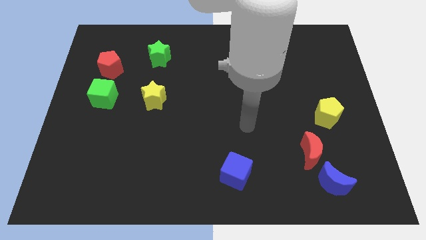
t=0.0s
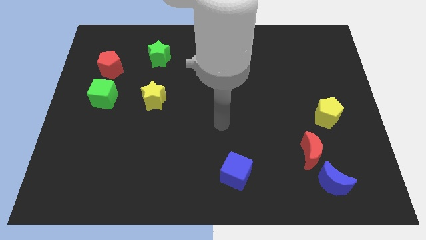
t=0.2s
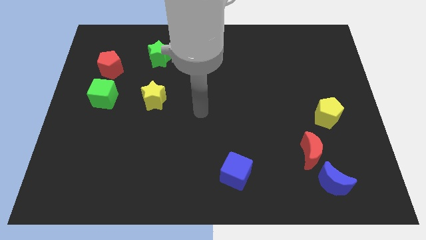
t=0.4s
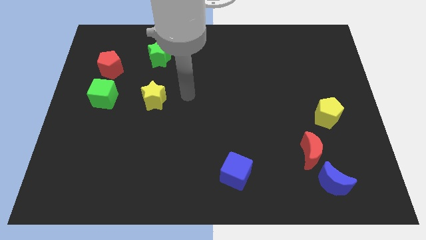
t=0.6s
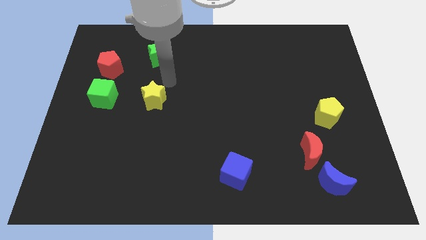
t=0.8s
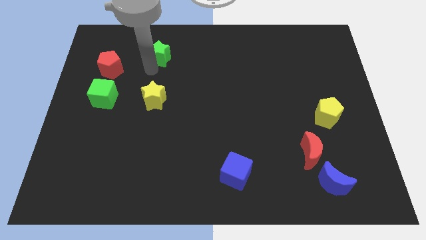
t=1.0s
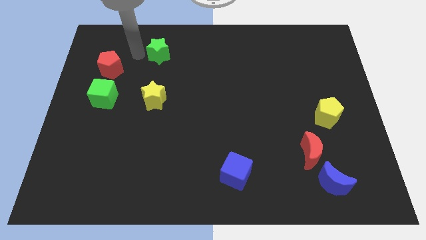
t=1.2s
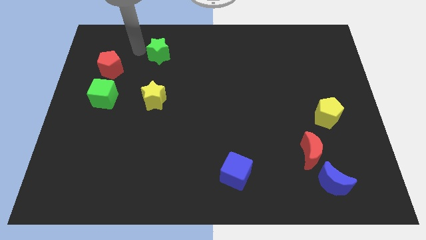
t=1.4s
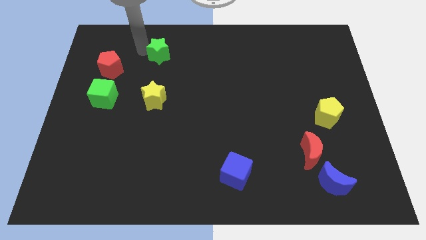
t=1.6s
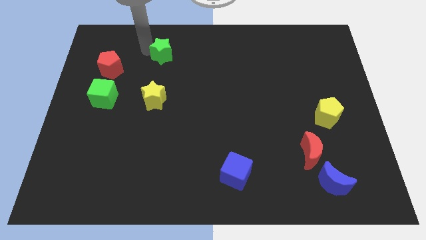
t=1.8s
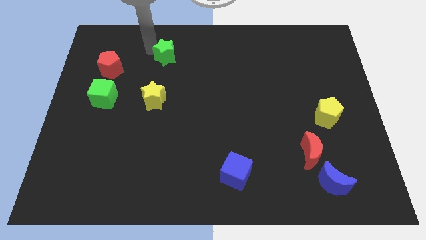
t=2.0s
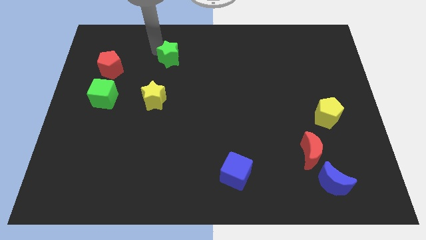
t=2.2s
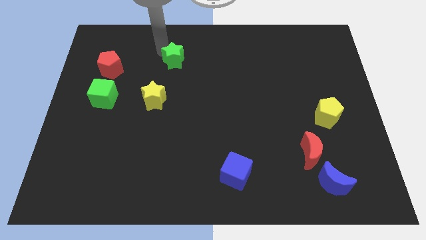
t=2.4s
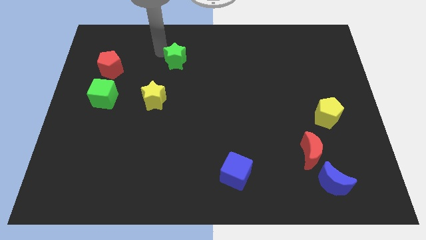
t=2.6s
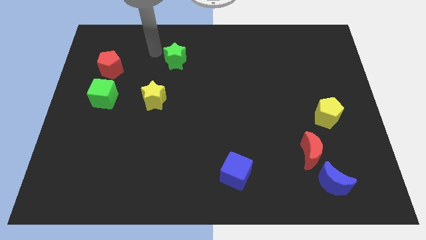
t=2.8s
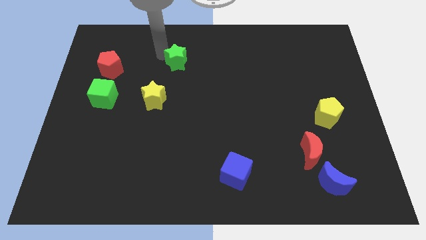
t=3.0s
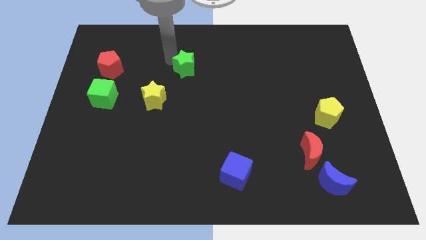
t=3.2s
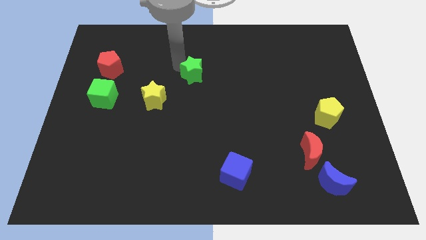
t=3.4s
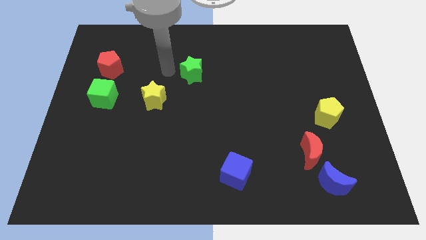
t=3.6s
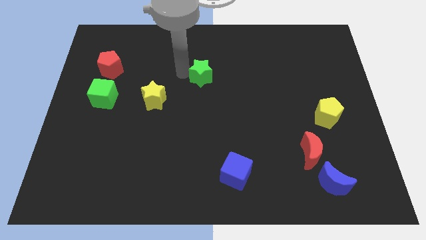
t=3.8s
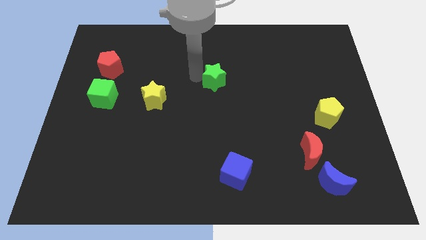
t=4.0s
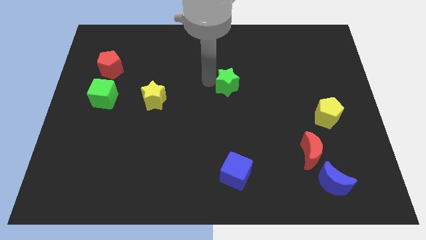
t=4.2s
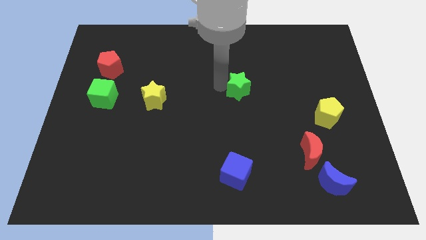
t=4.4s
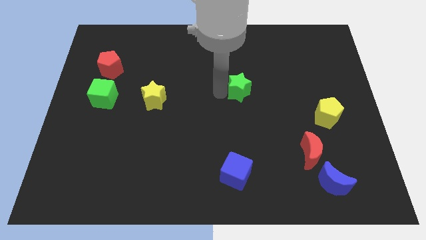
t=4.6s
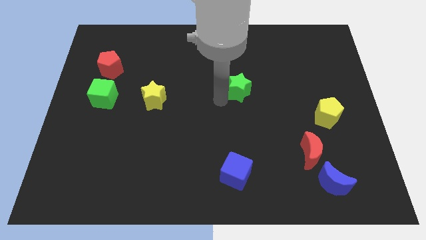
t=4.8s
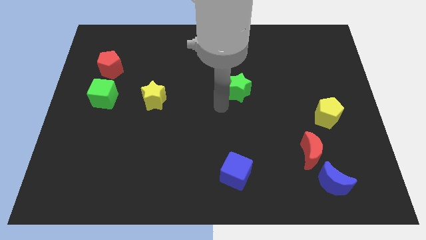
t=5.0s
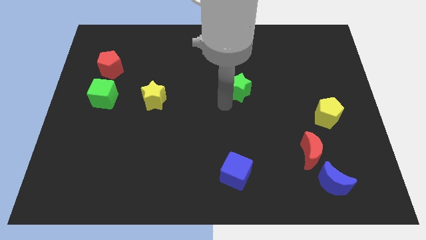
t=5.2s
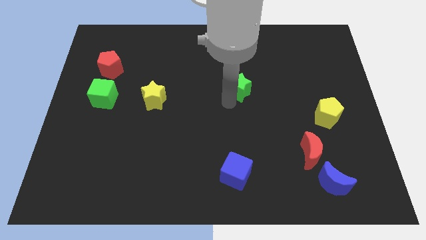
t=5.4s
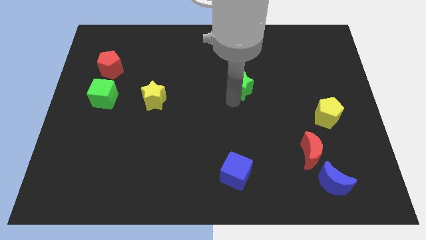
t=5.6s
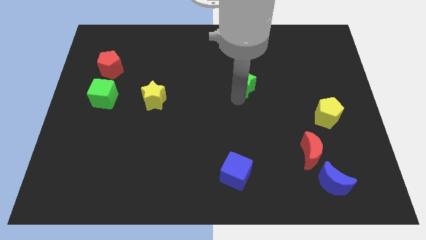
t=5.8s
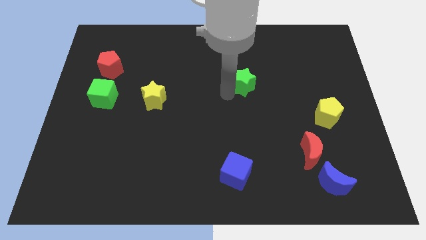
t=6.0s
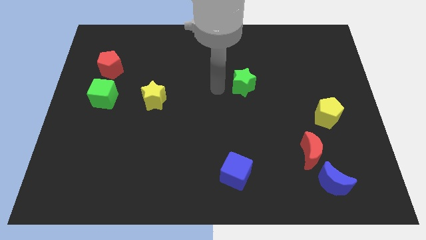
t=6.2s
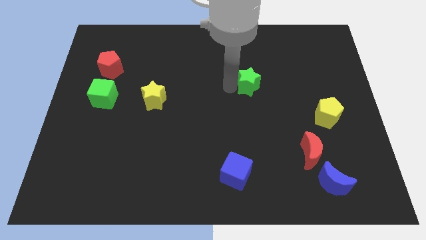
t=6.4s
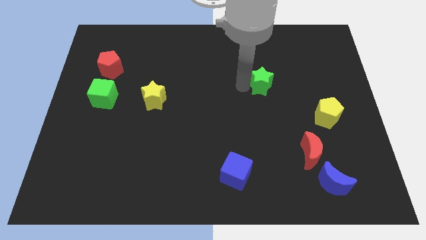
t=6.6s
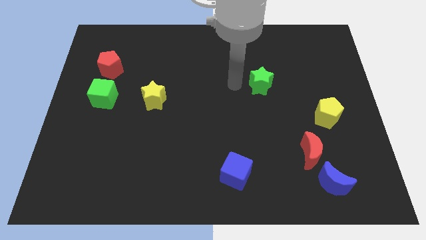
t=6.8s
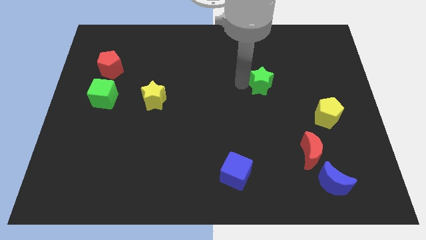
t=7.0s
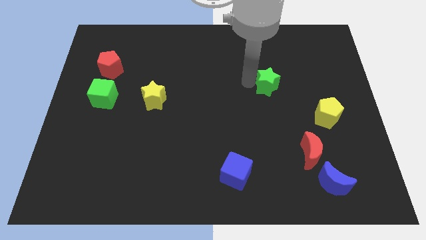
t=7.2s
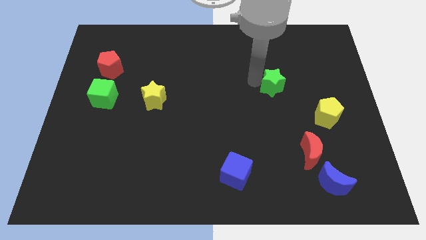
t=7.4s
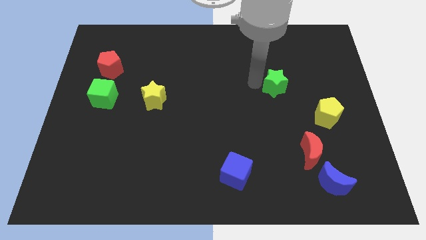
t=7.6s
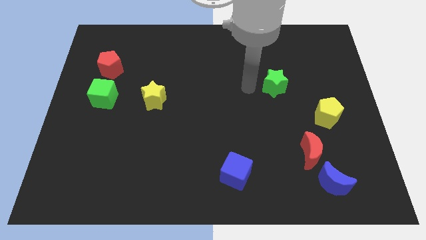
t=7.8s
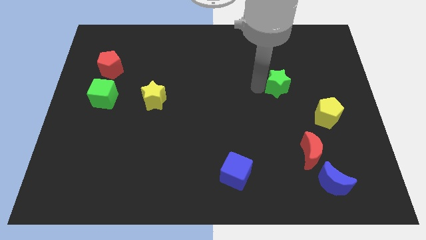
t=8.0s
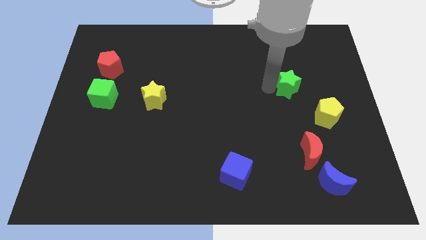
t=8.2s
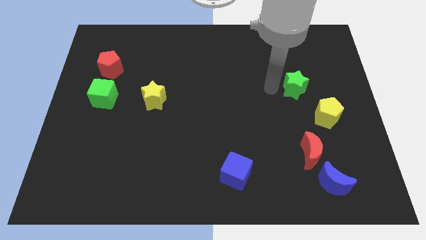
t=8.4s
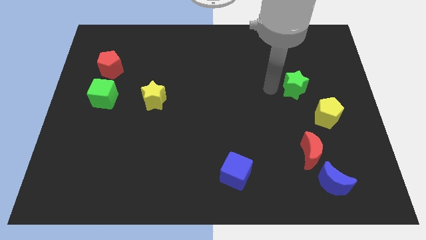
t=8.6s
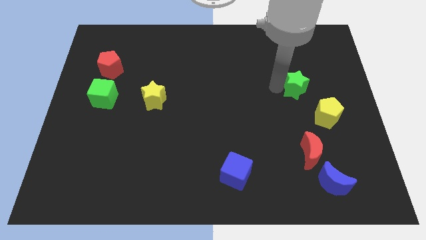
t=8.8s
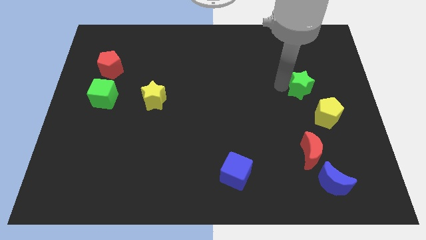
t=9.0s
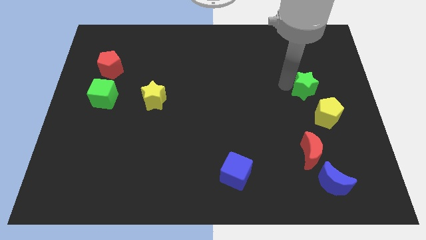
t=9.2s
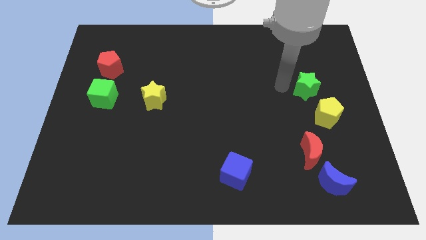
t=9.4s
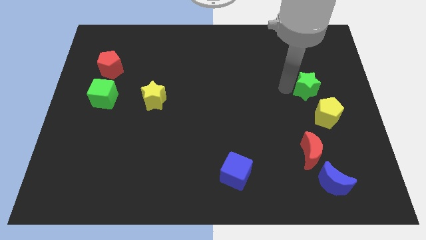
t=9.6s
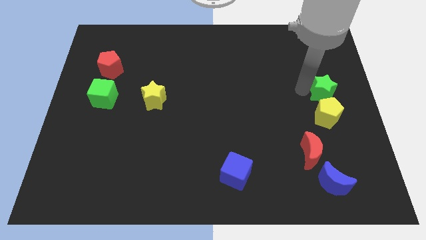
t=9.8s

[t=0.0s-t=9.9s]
slide the green star to the center right

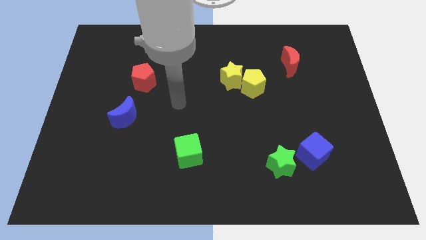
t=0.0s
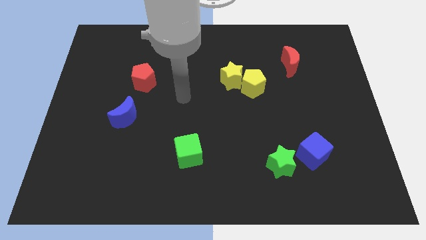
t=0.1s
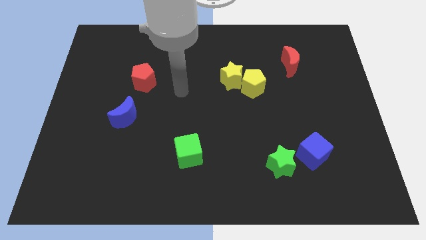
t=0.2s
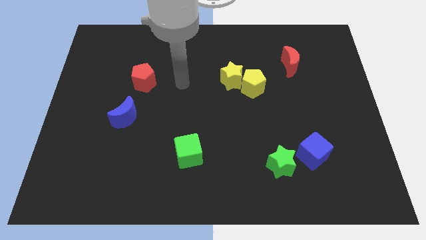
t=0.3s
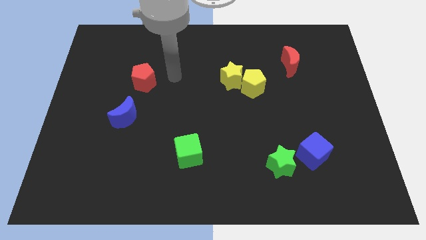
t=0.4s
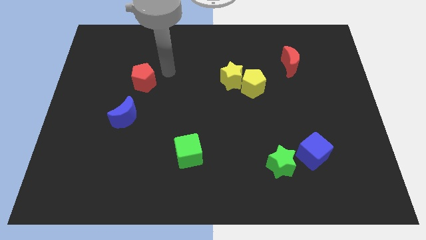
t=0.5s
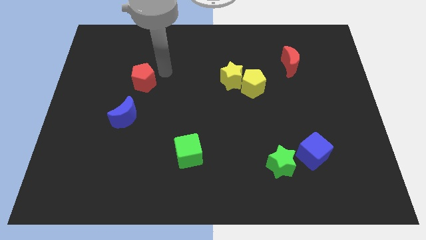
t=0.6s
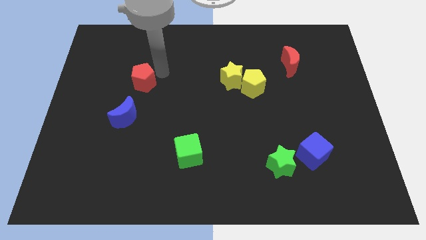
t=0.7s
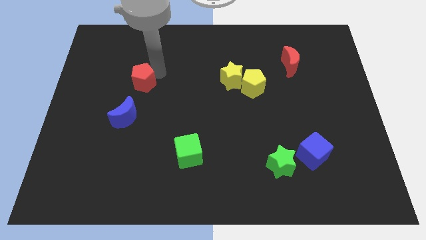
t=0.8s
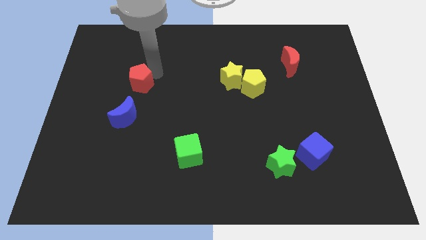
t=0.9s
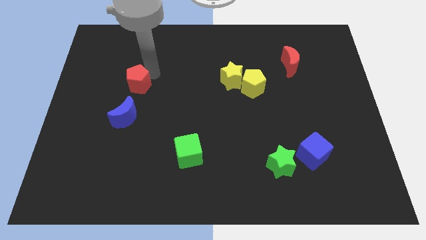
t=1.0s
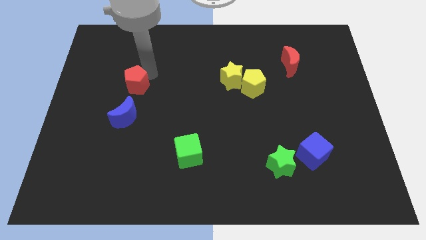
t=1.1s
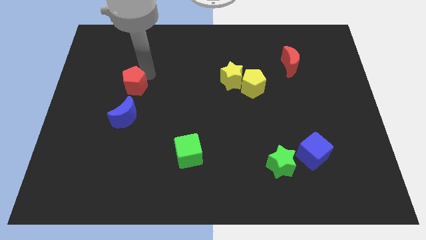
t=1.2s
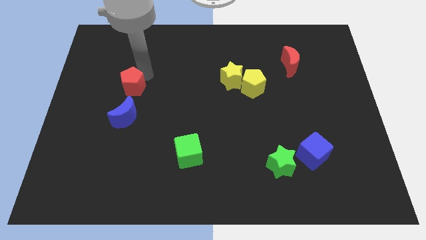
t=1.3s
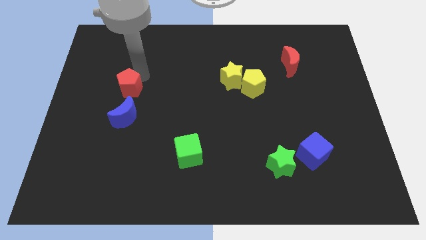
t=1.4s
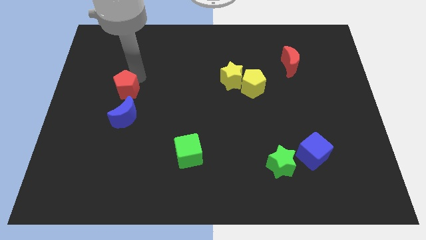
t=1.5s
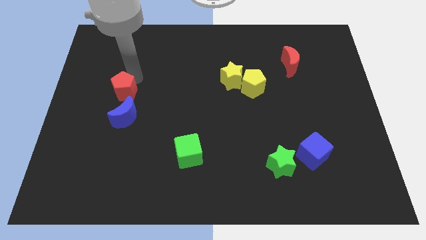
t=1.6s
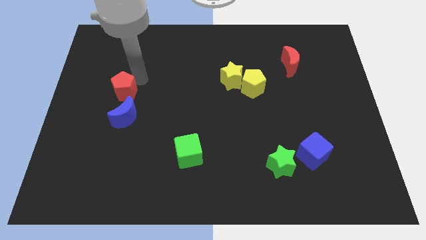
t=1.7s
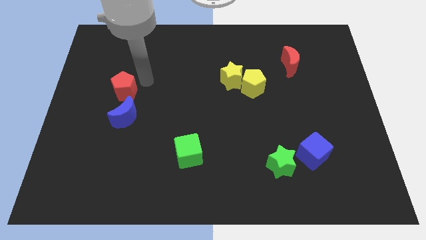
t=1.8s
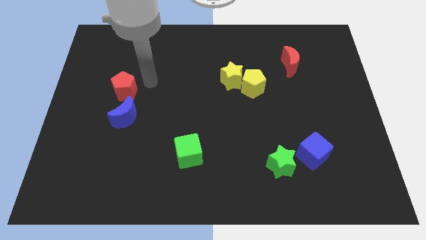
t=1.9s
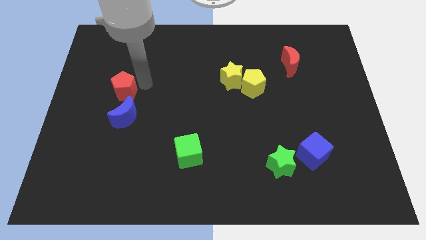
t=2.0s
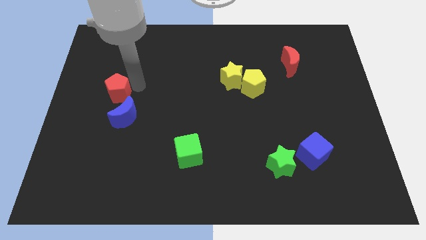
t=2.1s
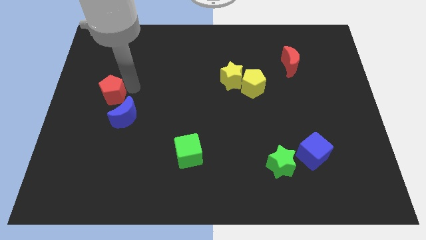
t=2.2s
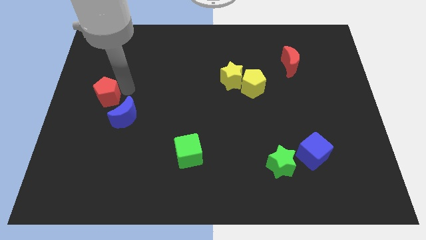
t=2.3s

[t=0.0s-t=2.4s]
move the red pentagon to the center left
